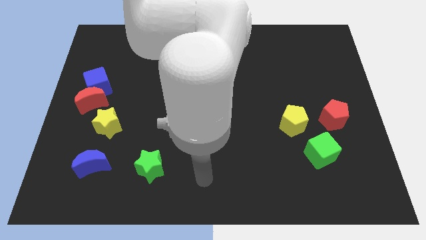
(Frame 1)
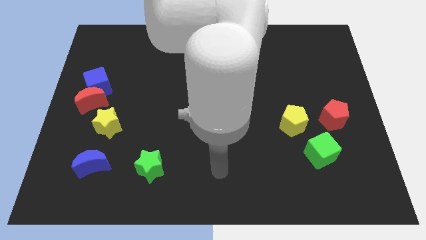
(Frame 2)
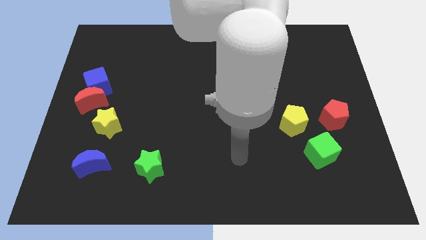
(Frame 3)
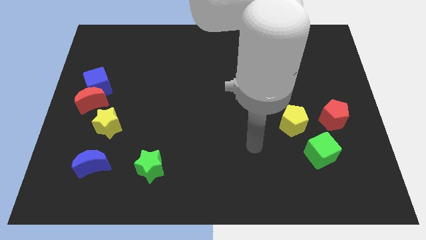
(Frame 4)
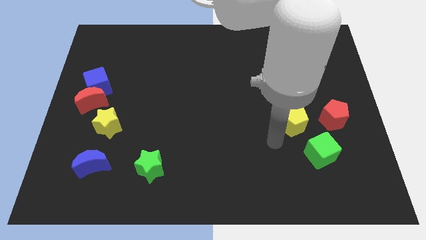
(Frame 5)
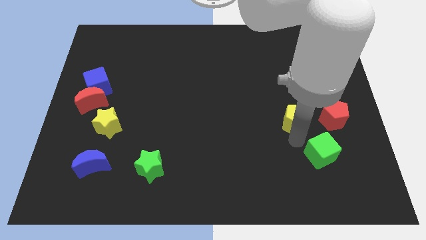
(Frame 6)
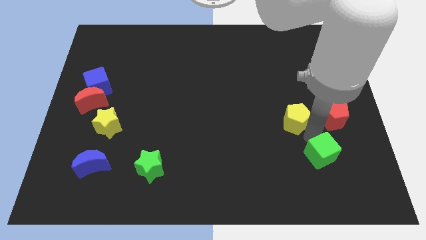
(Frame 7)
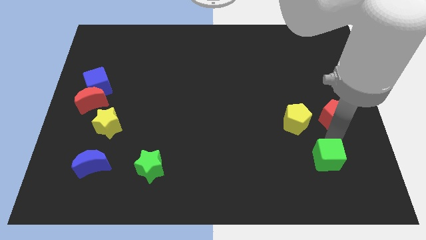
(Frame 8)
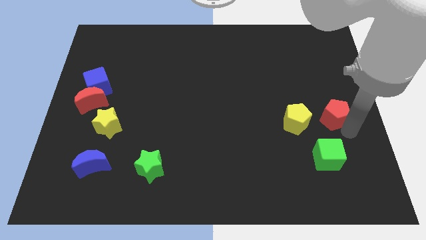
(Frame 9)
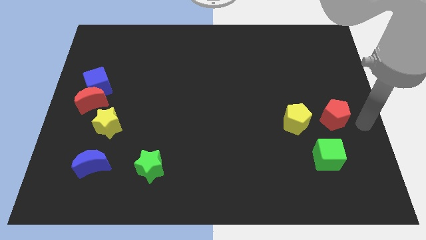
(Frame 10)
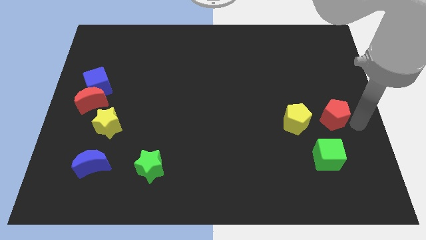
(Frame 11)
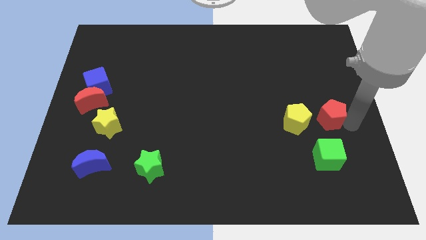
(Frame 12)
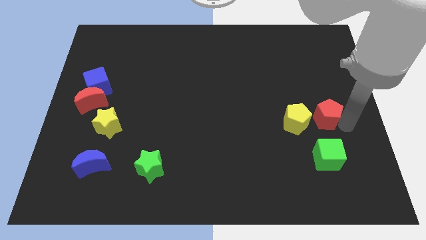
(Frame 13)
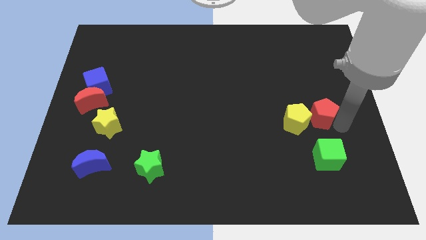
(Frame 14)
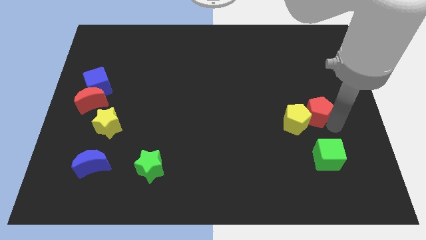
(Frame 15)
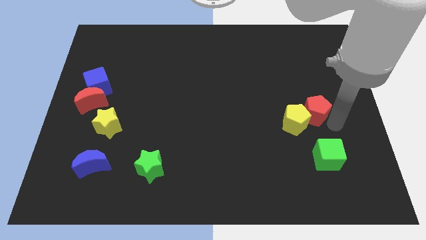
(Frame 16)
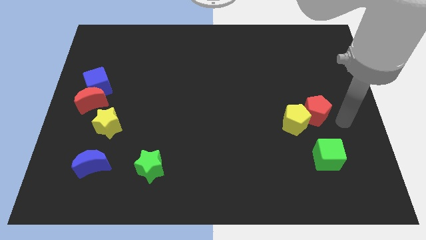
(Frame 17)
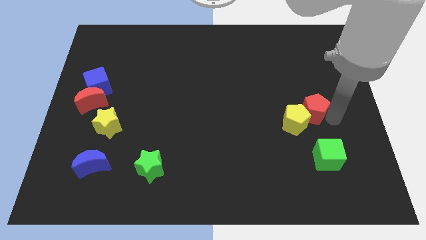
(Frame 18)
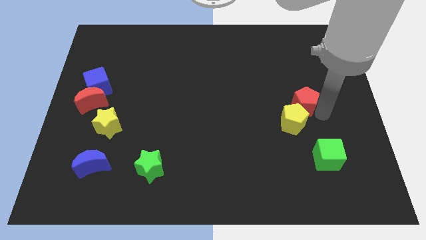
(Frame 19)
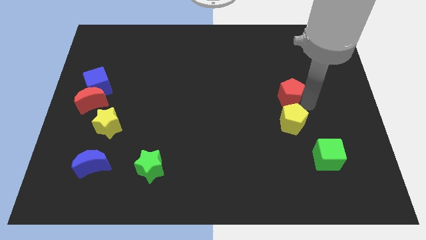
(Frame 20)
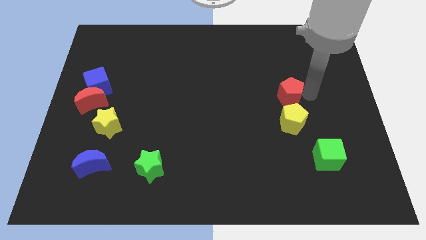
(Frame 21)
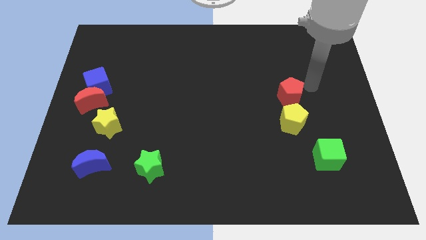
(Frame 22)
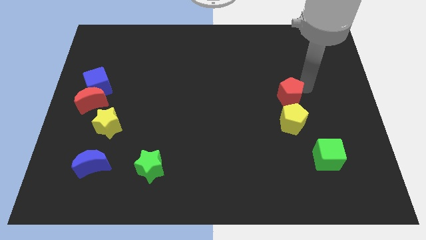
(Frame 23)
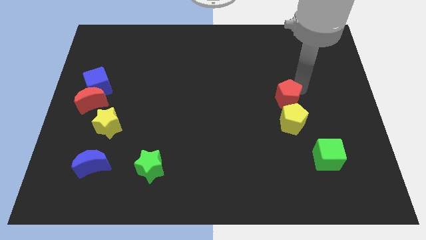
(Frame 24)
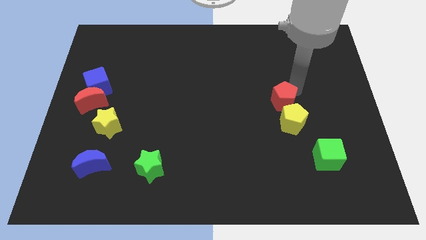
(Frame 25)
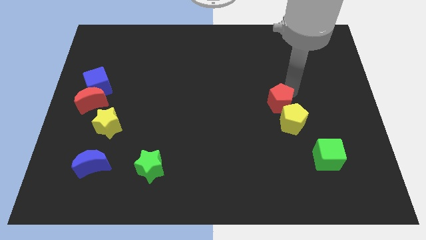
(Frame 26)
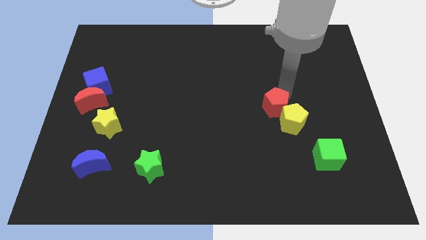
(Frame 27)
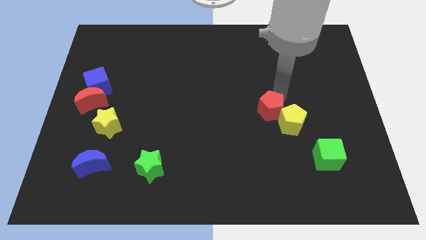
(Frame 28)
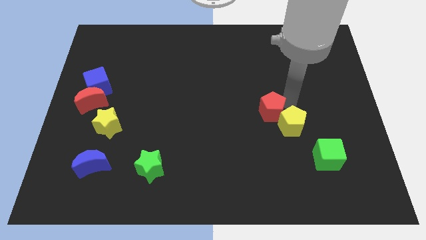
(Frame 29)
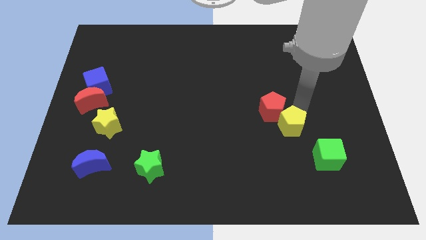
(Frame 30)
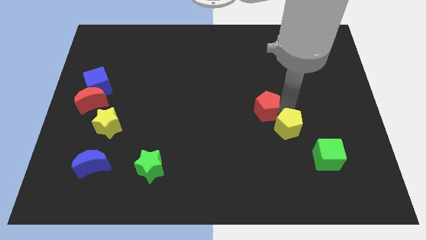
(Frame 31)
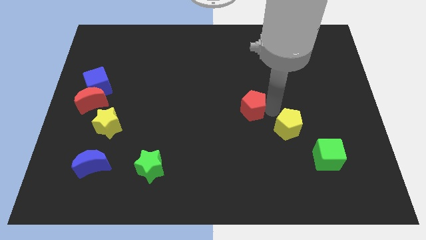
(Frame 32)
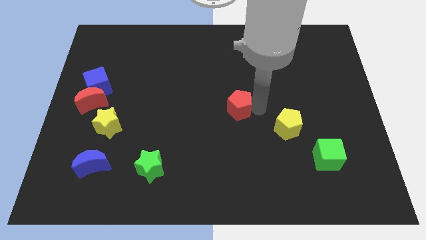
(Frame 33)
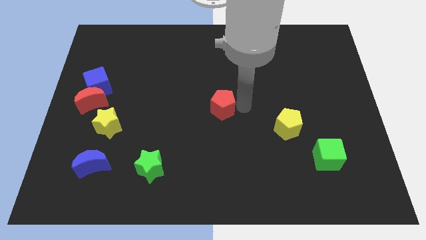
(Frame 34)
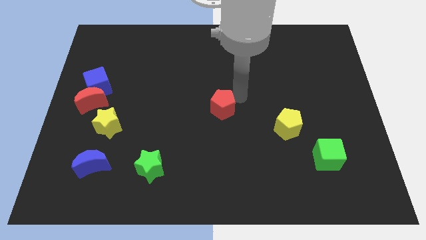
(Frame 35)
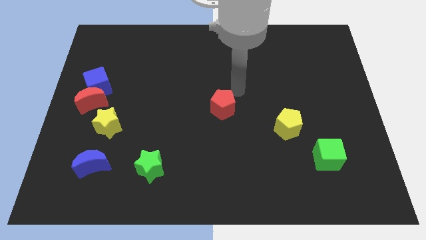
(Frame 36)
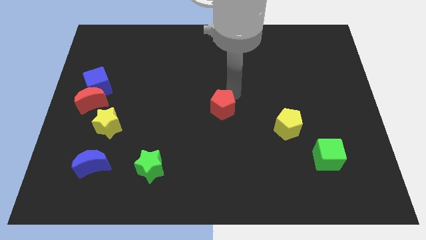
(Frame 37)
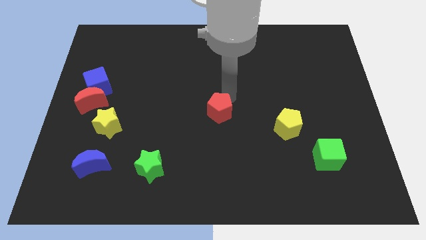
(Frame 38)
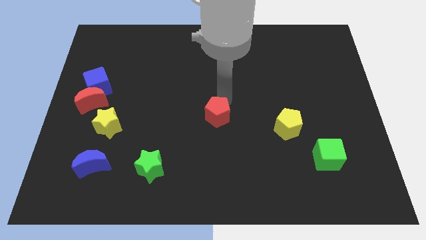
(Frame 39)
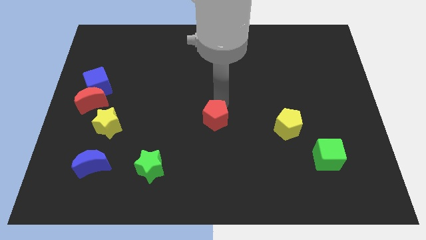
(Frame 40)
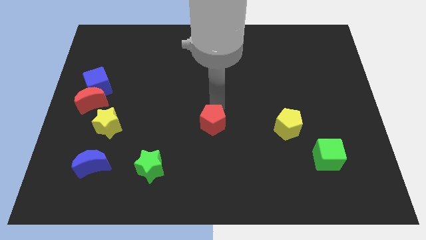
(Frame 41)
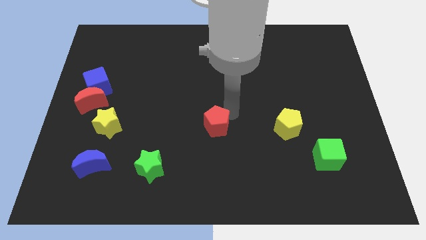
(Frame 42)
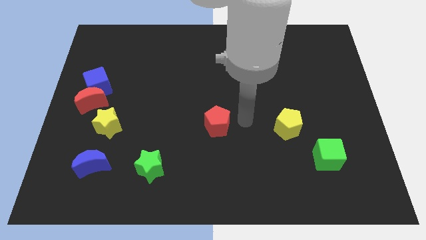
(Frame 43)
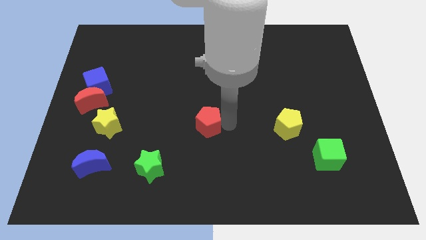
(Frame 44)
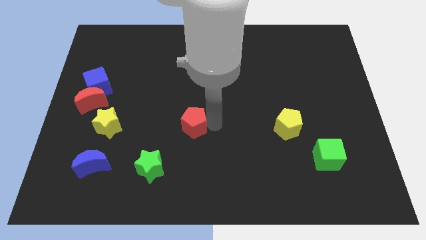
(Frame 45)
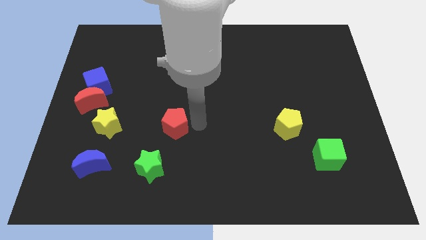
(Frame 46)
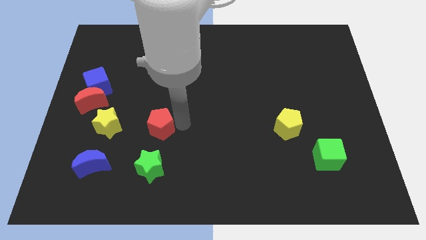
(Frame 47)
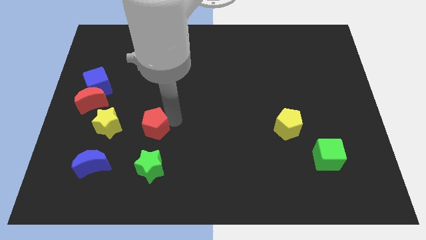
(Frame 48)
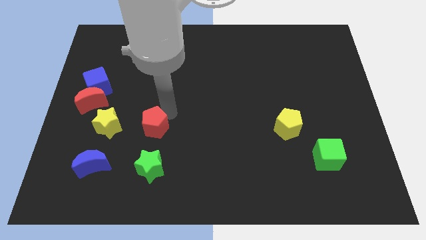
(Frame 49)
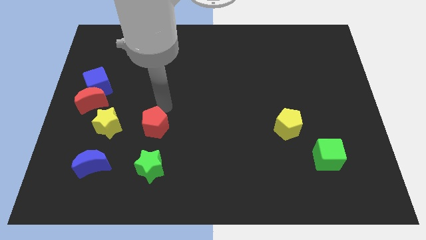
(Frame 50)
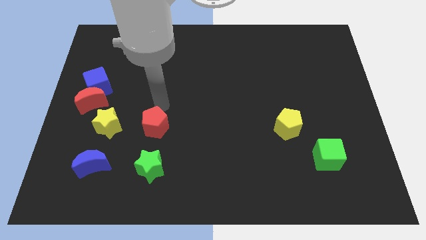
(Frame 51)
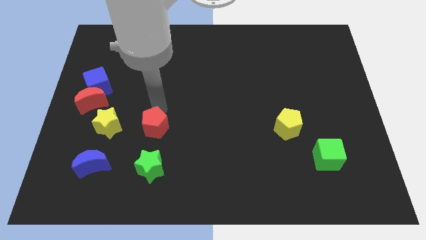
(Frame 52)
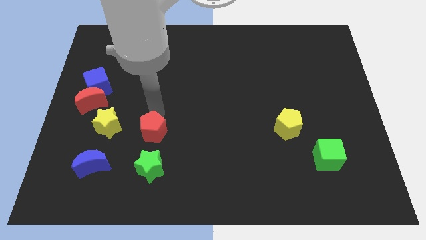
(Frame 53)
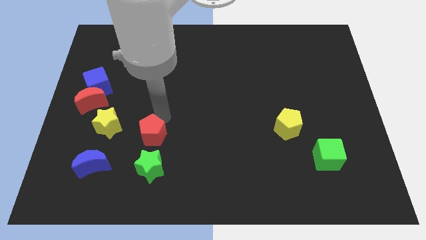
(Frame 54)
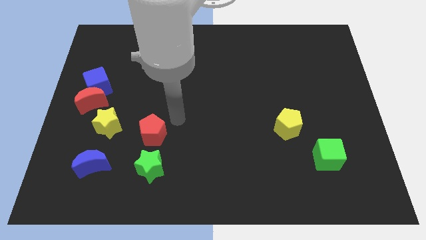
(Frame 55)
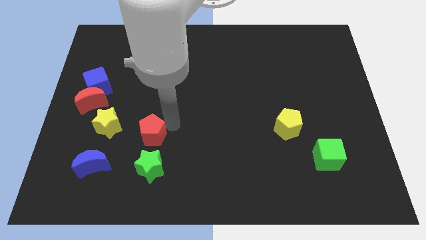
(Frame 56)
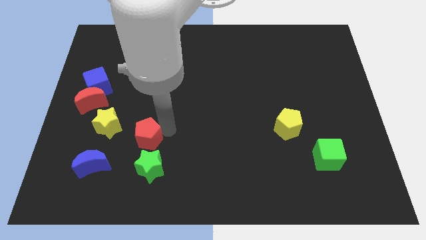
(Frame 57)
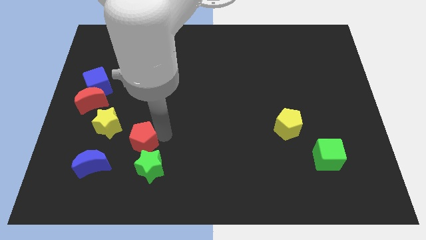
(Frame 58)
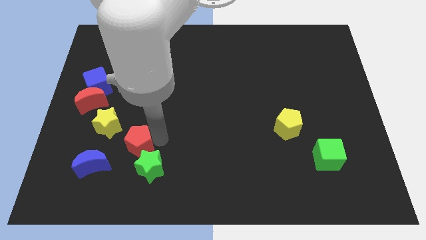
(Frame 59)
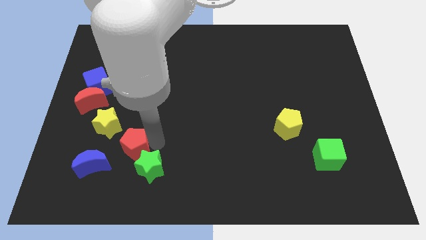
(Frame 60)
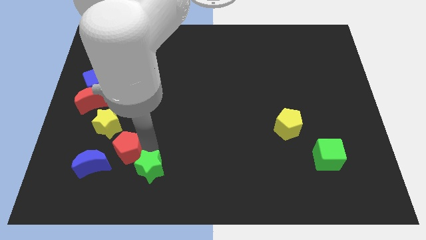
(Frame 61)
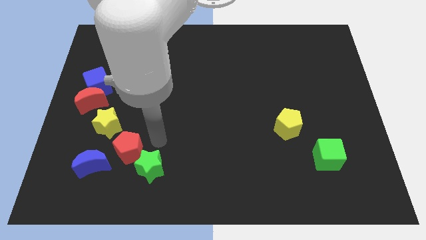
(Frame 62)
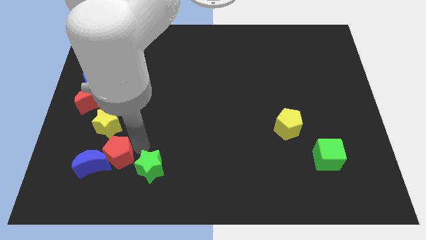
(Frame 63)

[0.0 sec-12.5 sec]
push the red pentagon next to the blue moon
